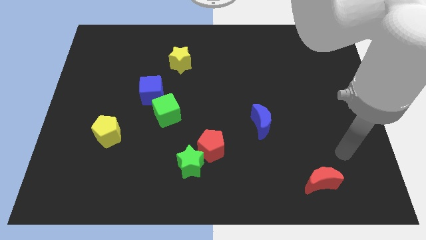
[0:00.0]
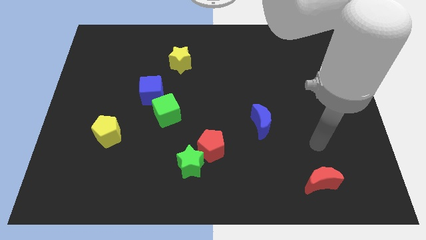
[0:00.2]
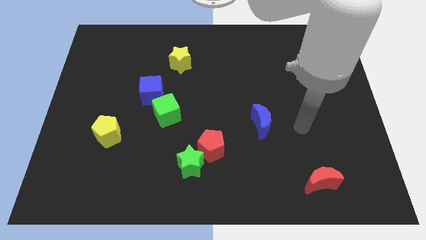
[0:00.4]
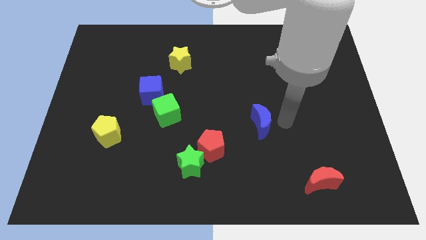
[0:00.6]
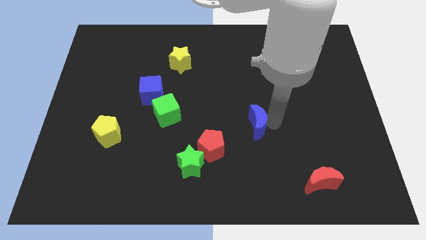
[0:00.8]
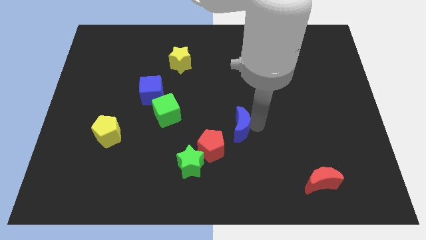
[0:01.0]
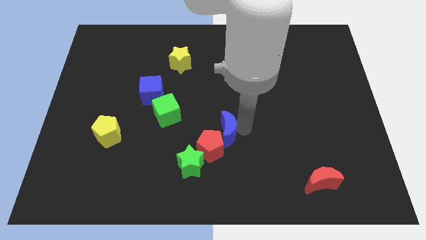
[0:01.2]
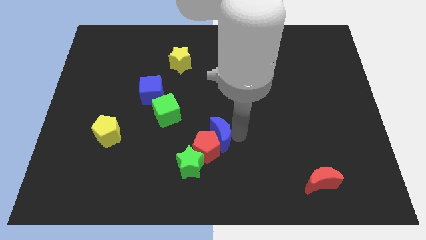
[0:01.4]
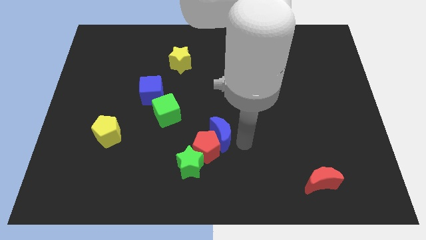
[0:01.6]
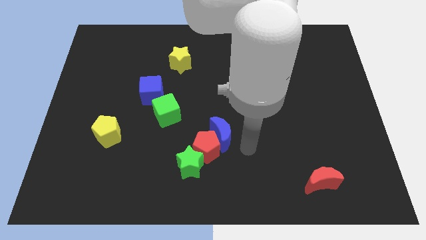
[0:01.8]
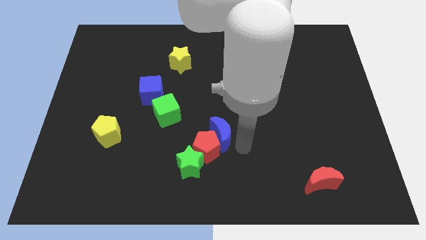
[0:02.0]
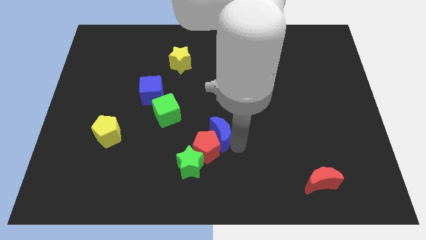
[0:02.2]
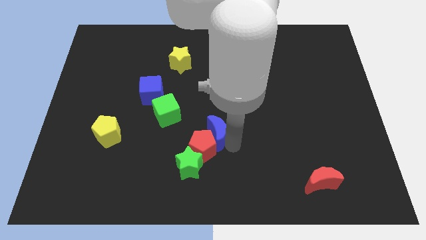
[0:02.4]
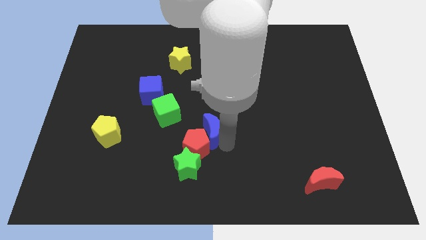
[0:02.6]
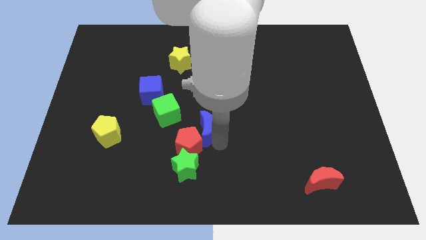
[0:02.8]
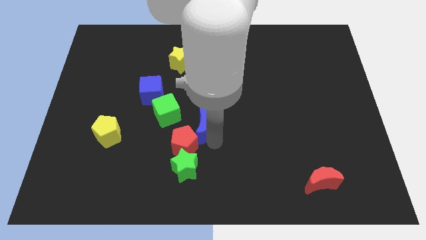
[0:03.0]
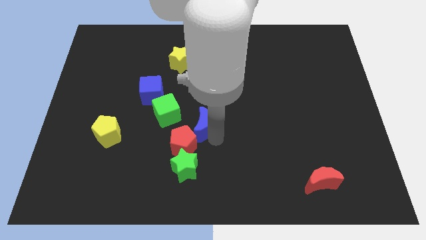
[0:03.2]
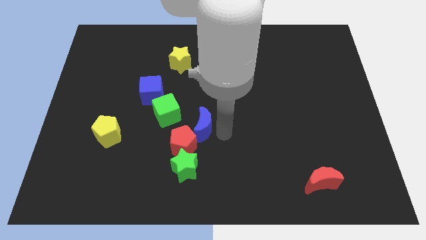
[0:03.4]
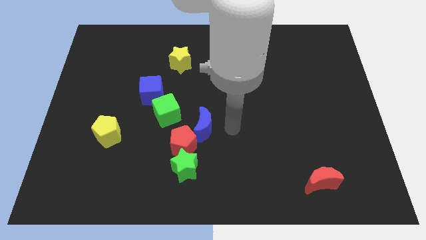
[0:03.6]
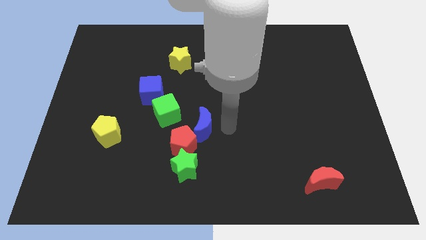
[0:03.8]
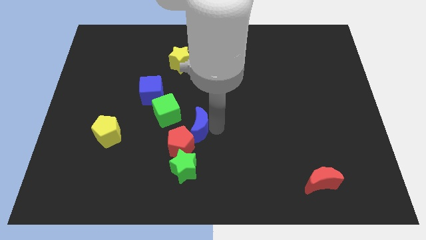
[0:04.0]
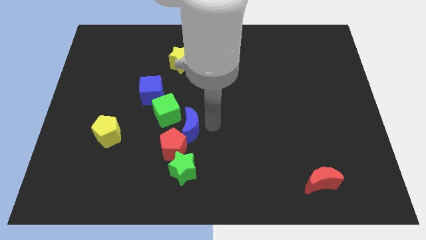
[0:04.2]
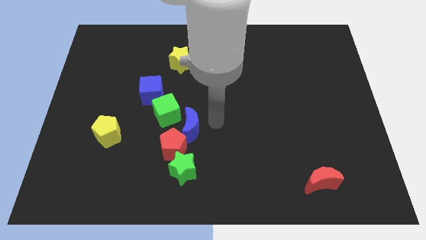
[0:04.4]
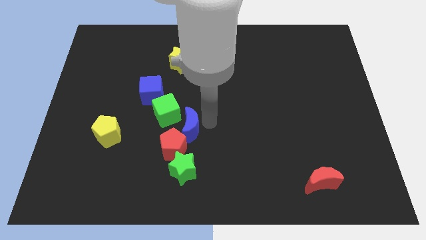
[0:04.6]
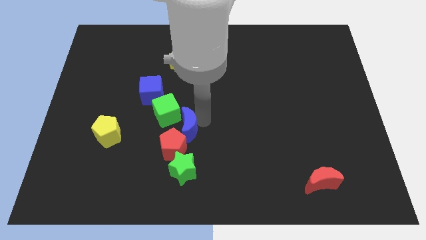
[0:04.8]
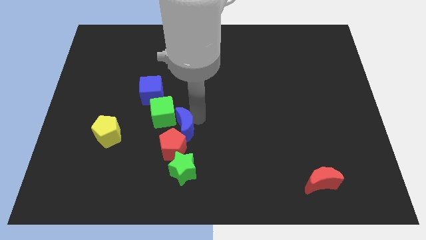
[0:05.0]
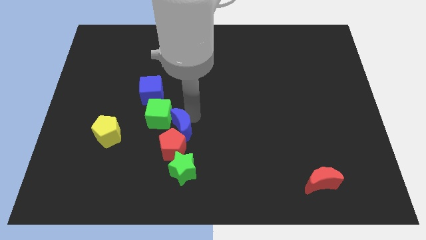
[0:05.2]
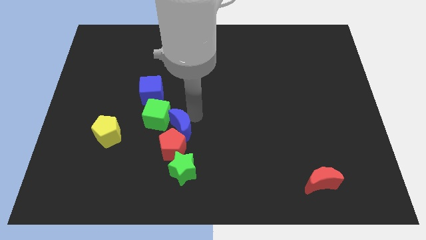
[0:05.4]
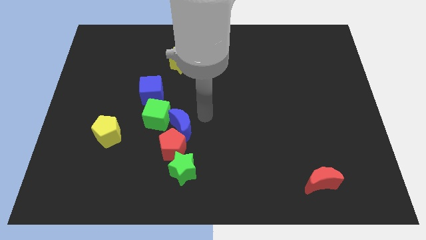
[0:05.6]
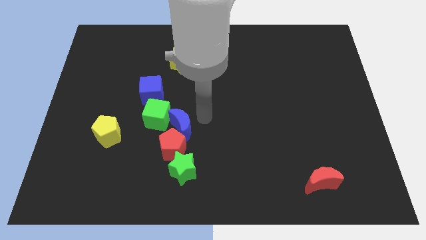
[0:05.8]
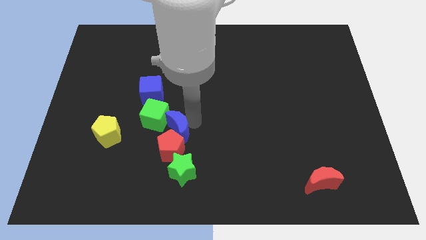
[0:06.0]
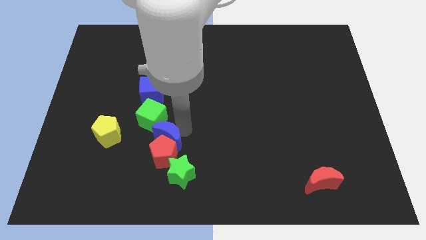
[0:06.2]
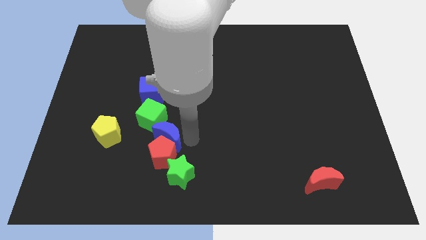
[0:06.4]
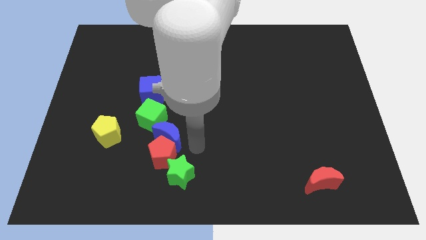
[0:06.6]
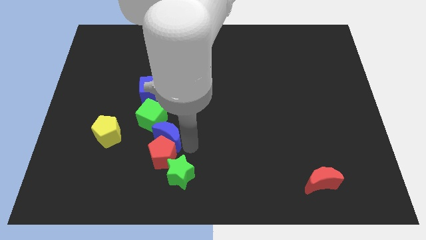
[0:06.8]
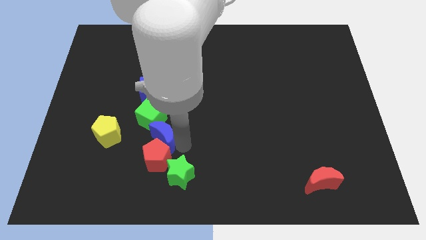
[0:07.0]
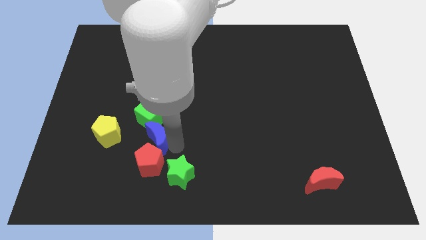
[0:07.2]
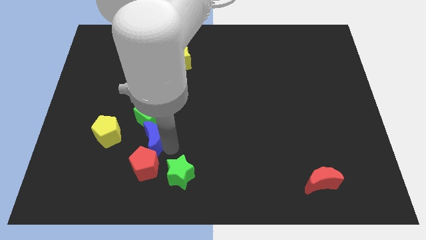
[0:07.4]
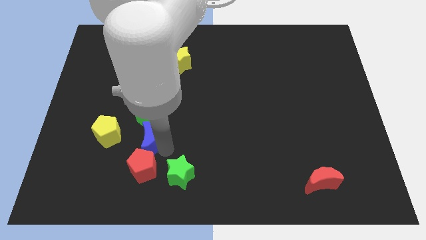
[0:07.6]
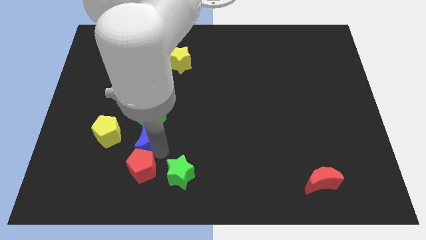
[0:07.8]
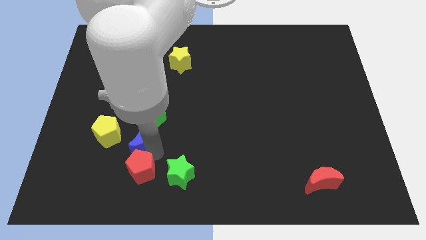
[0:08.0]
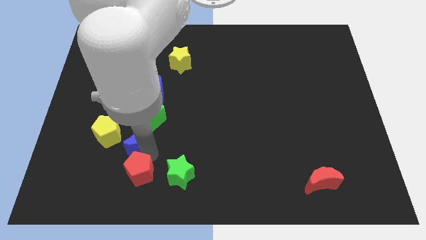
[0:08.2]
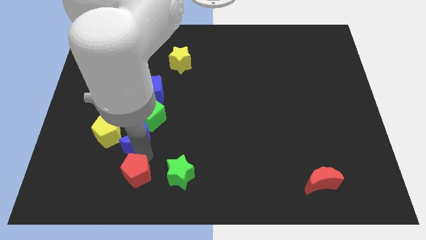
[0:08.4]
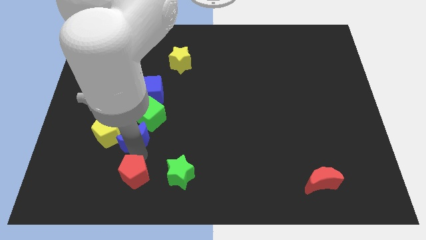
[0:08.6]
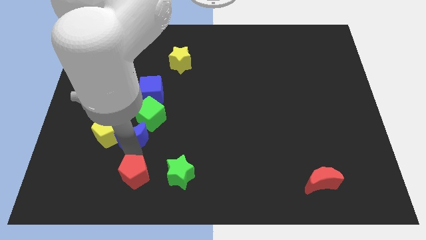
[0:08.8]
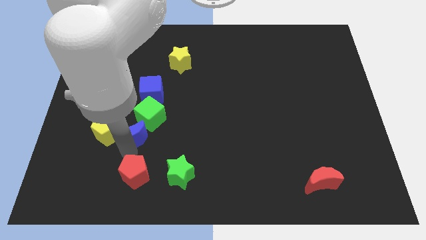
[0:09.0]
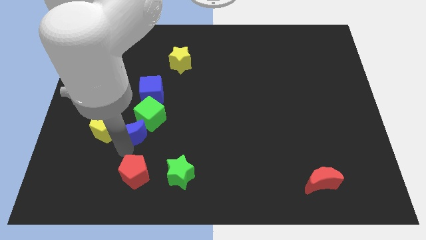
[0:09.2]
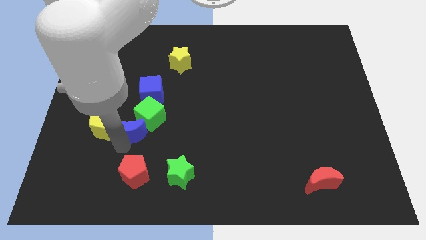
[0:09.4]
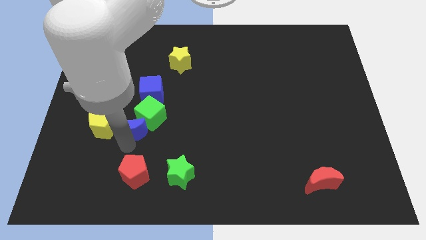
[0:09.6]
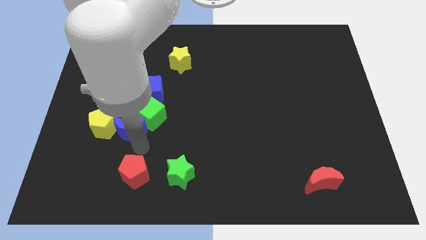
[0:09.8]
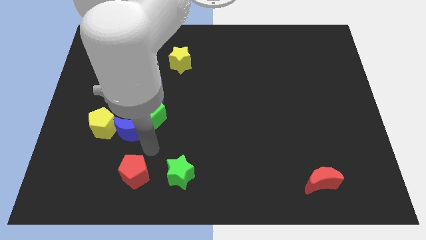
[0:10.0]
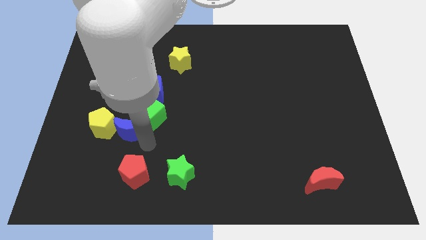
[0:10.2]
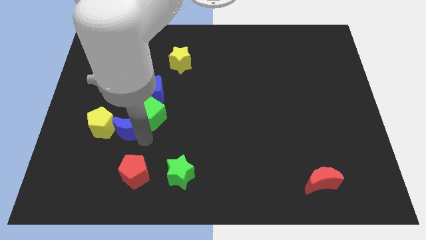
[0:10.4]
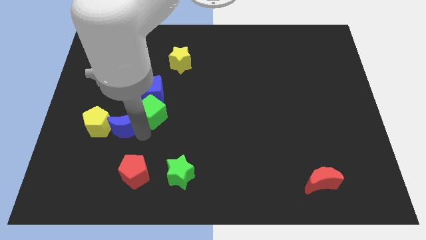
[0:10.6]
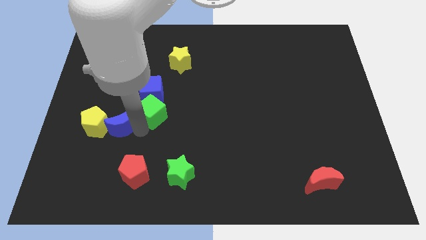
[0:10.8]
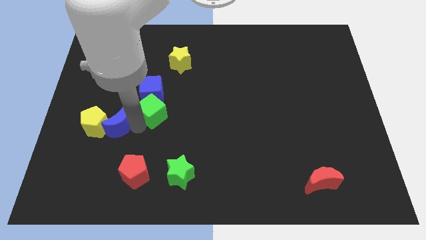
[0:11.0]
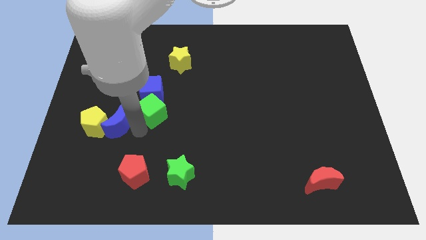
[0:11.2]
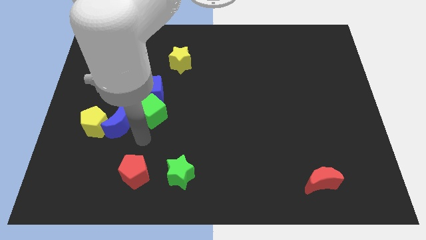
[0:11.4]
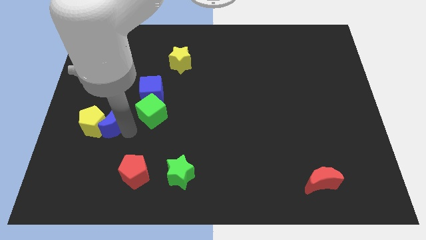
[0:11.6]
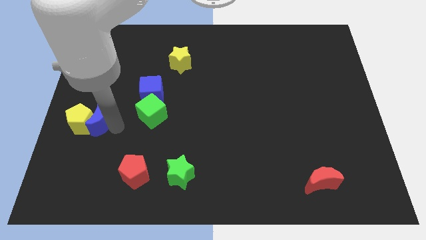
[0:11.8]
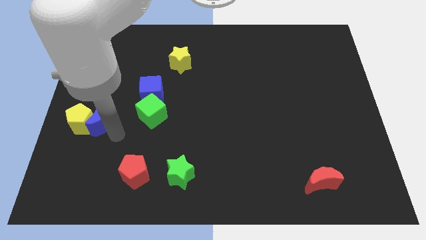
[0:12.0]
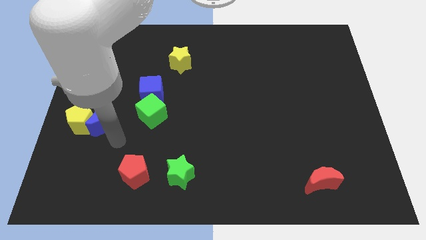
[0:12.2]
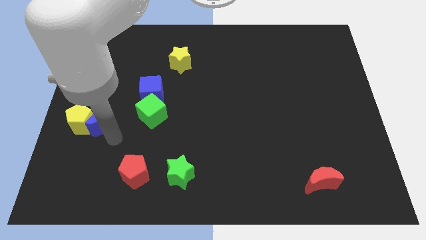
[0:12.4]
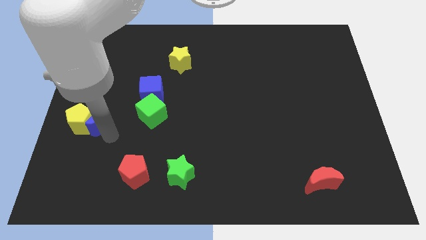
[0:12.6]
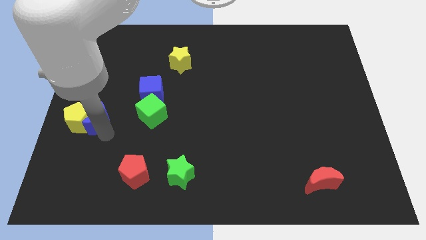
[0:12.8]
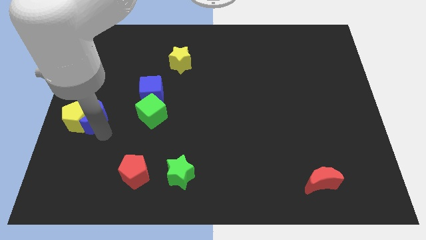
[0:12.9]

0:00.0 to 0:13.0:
put the blue moon to the center left

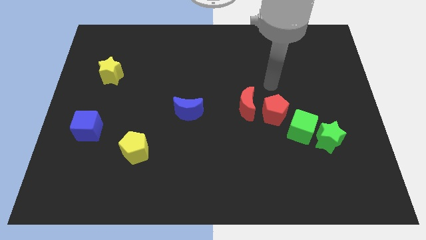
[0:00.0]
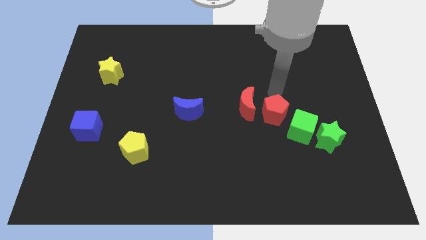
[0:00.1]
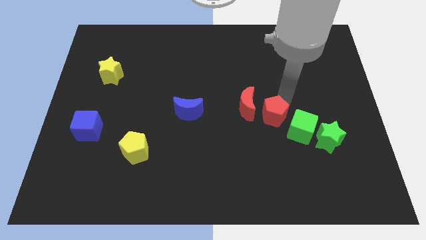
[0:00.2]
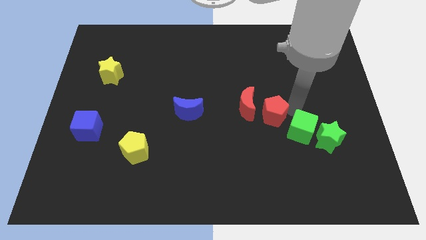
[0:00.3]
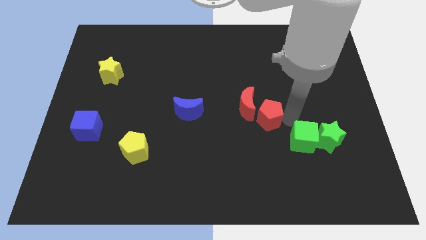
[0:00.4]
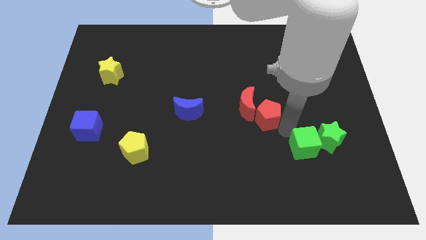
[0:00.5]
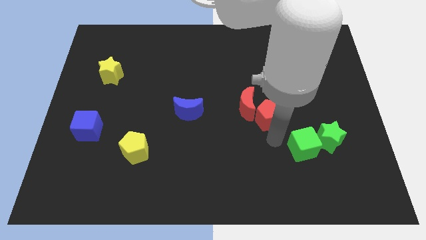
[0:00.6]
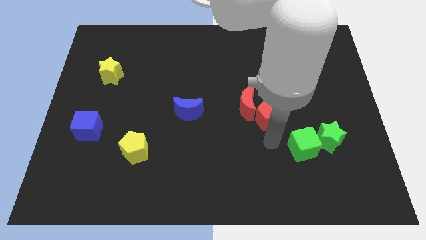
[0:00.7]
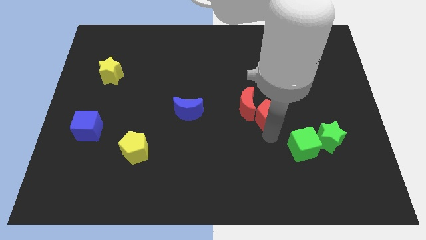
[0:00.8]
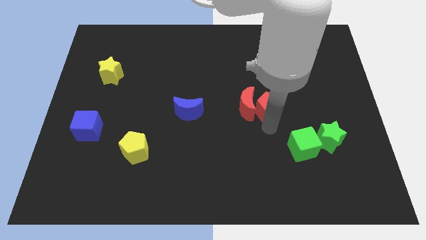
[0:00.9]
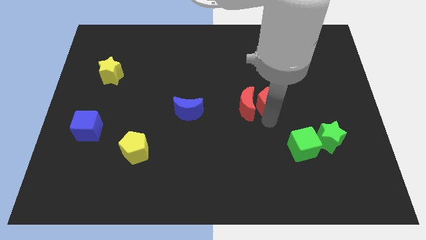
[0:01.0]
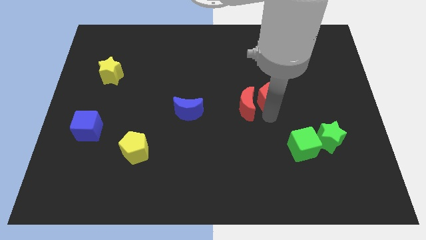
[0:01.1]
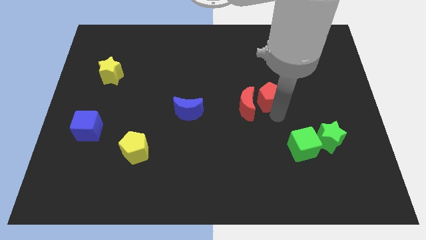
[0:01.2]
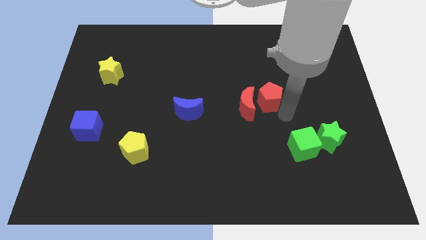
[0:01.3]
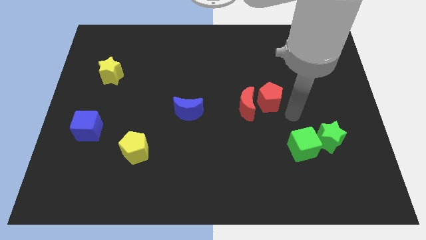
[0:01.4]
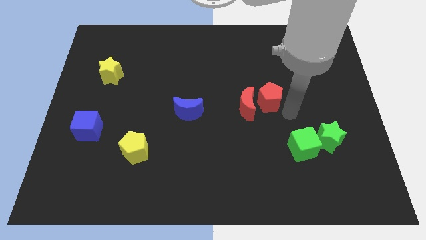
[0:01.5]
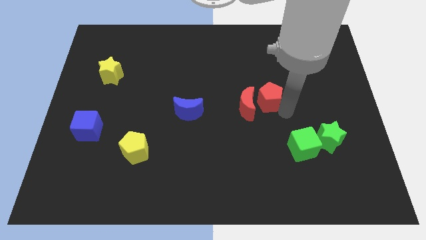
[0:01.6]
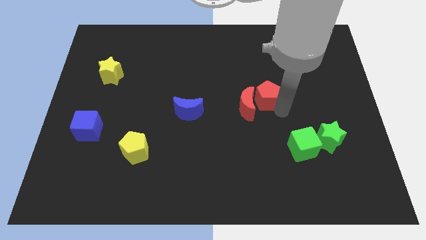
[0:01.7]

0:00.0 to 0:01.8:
move the red pentagon to the center of the board
